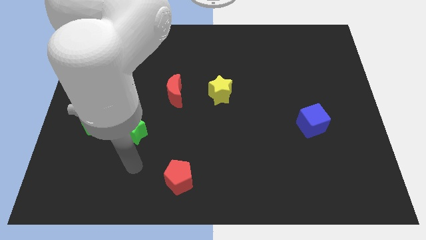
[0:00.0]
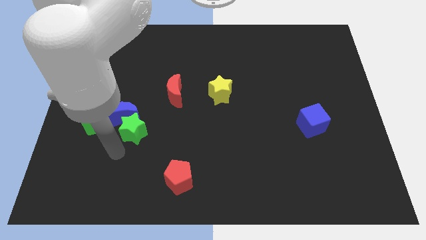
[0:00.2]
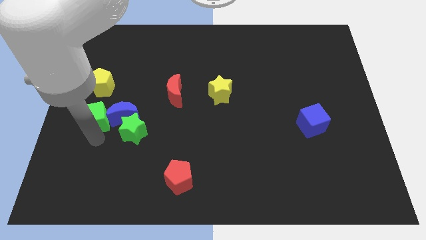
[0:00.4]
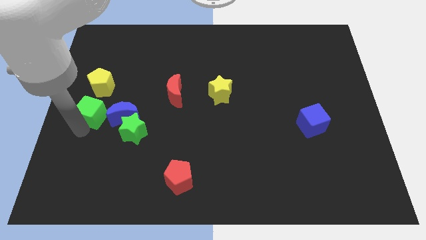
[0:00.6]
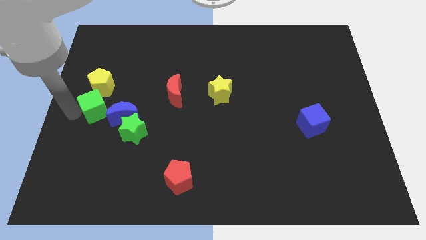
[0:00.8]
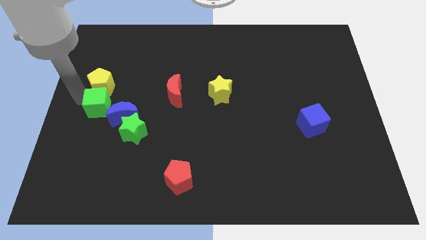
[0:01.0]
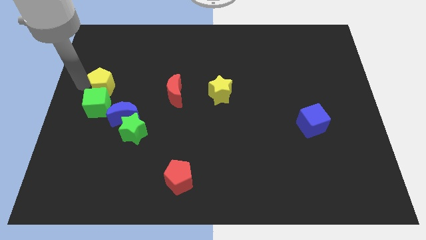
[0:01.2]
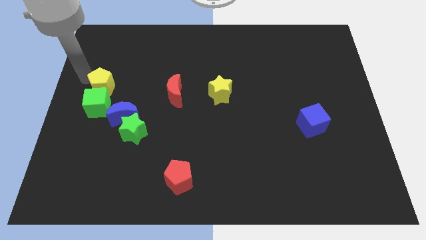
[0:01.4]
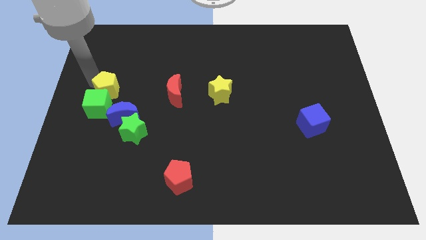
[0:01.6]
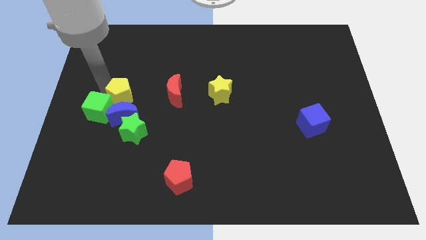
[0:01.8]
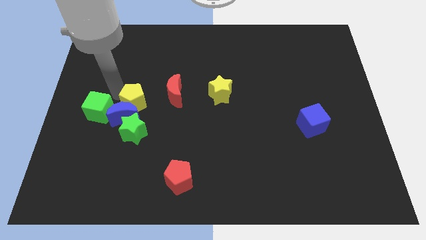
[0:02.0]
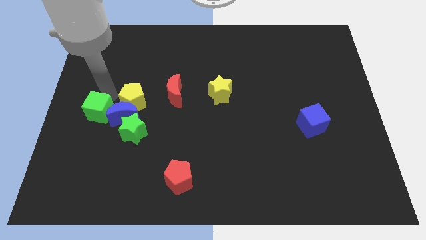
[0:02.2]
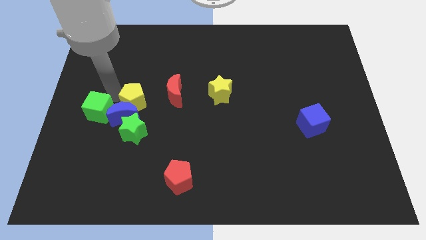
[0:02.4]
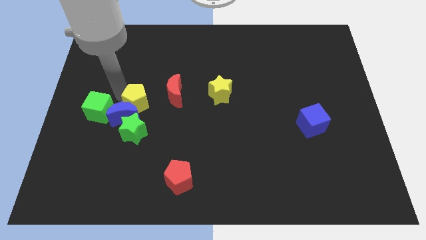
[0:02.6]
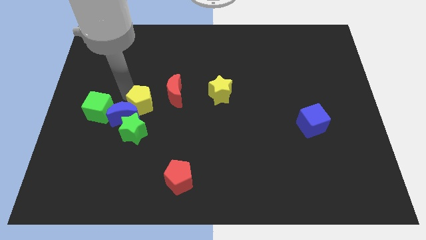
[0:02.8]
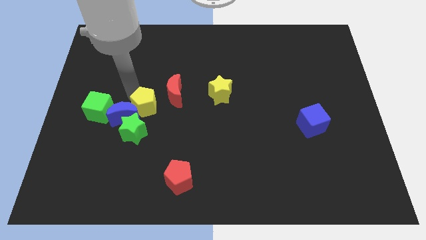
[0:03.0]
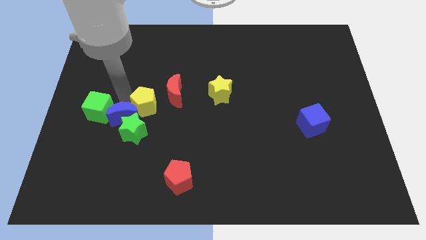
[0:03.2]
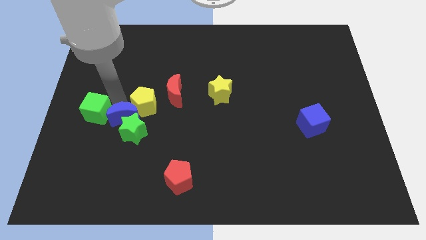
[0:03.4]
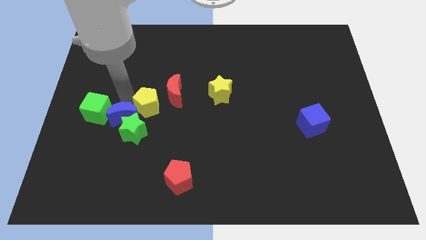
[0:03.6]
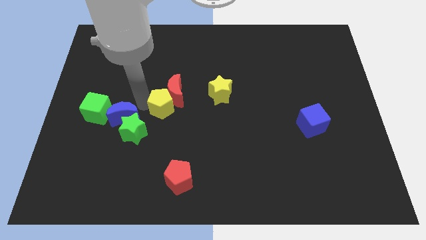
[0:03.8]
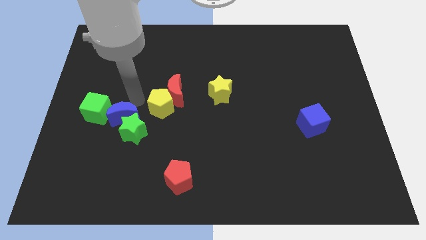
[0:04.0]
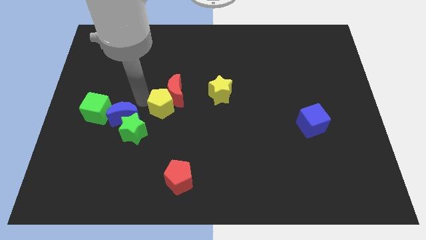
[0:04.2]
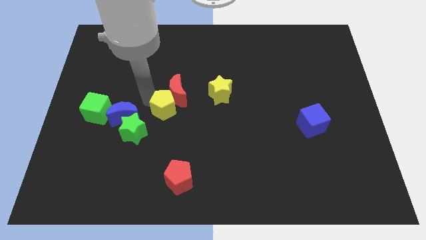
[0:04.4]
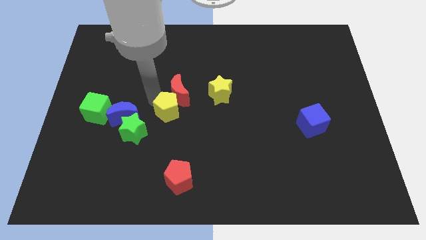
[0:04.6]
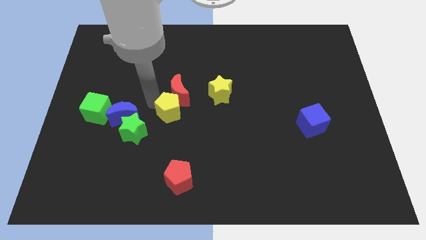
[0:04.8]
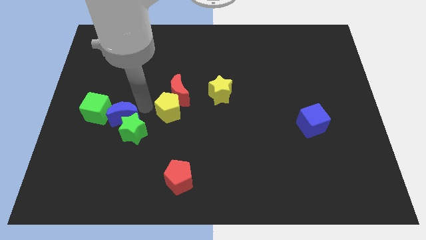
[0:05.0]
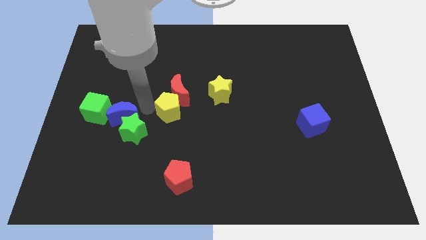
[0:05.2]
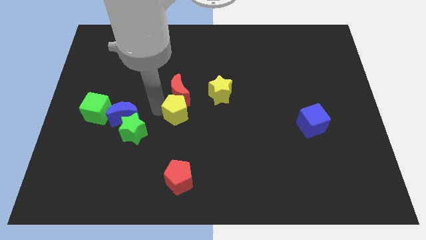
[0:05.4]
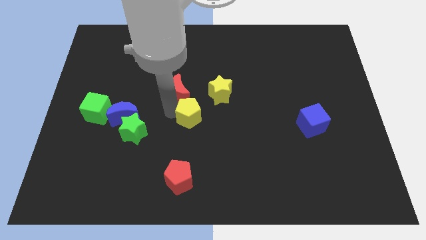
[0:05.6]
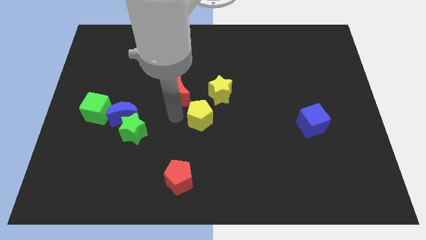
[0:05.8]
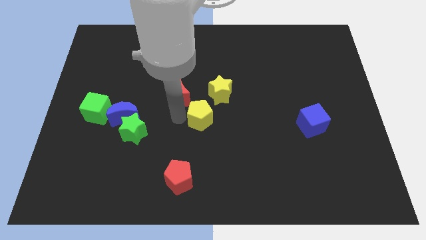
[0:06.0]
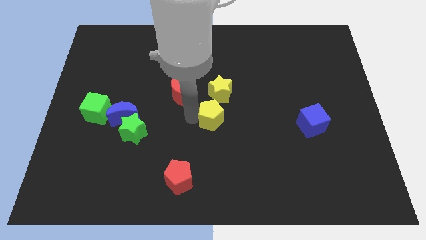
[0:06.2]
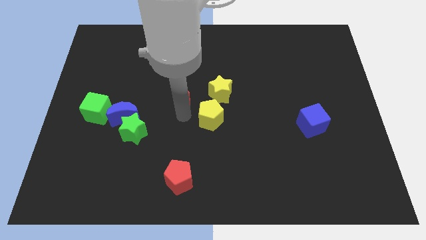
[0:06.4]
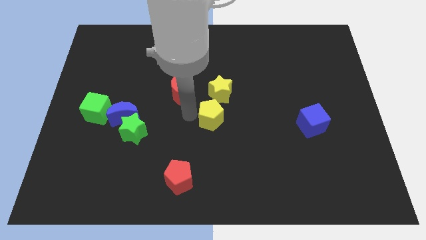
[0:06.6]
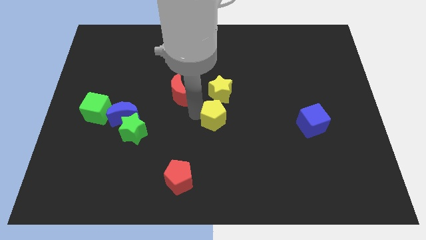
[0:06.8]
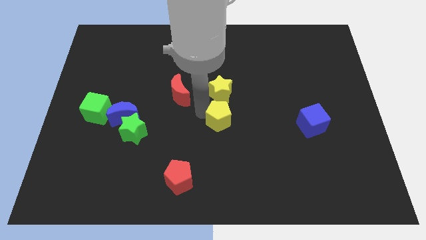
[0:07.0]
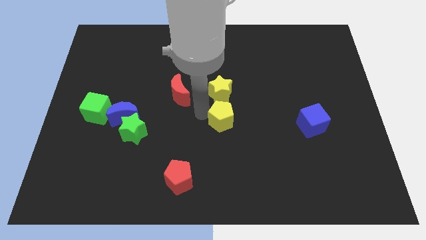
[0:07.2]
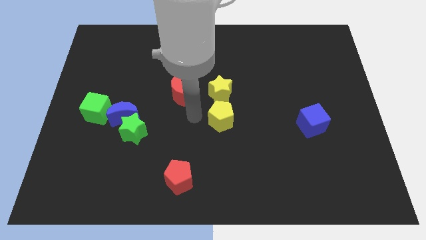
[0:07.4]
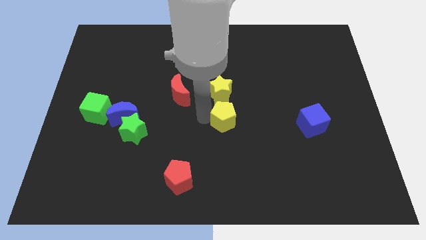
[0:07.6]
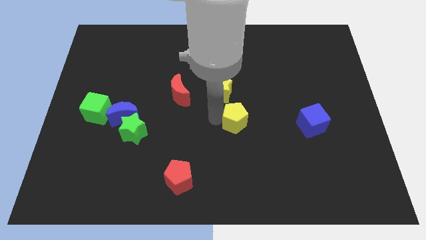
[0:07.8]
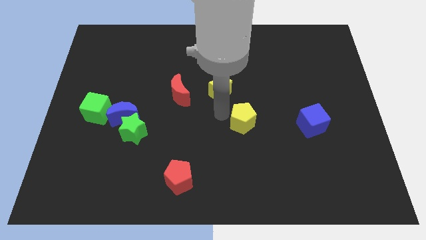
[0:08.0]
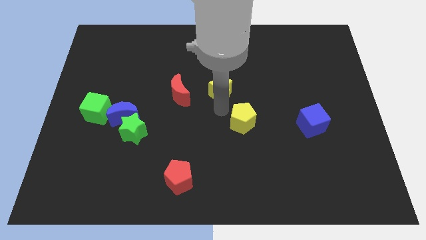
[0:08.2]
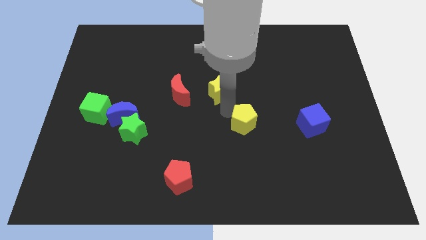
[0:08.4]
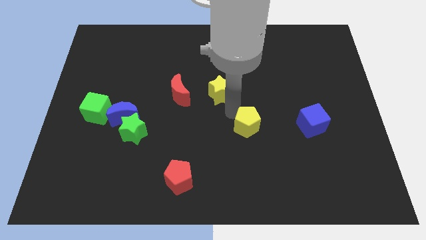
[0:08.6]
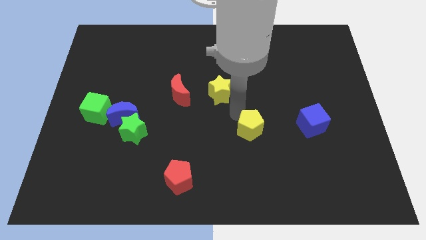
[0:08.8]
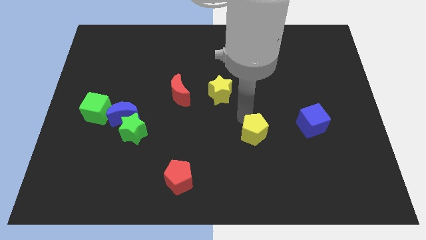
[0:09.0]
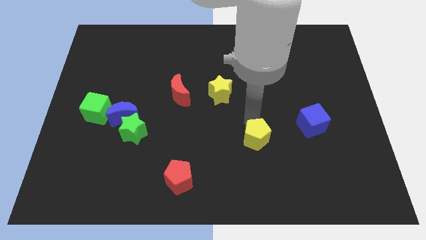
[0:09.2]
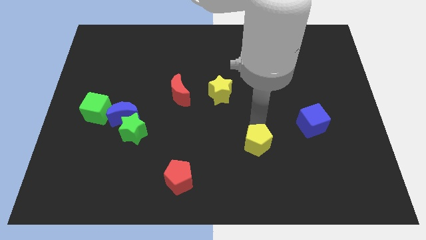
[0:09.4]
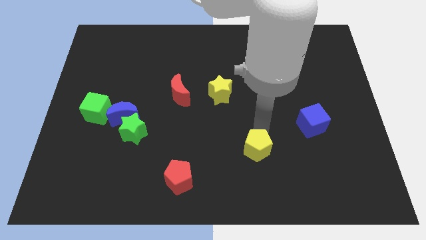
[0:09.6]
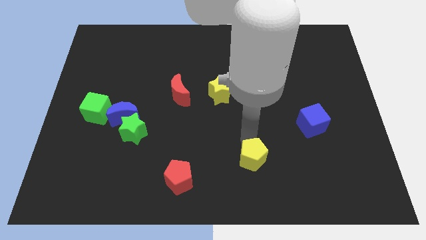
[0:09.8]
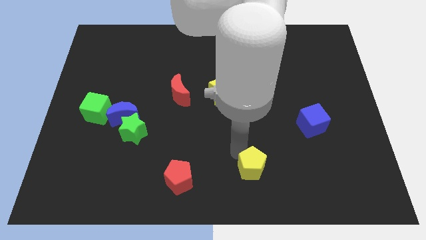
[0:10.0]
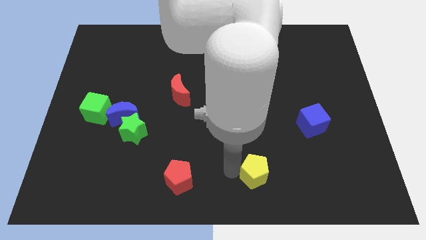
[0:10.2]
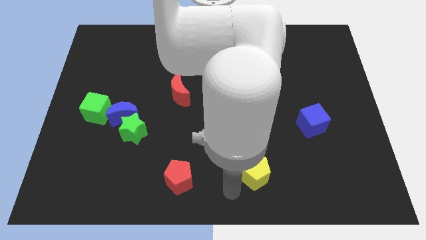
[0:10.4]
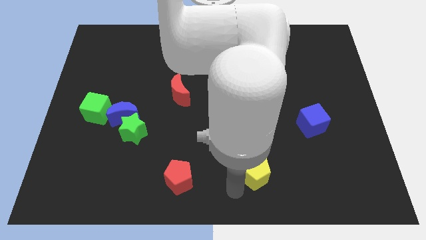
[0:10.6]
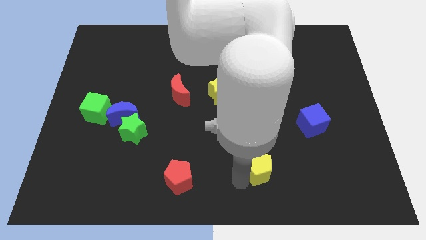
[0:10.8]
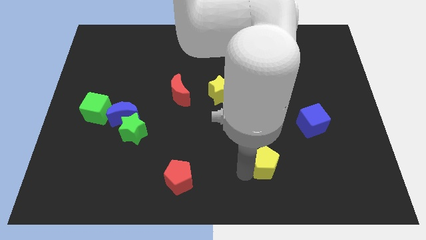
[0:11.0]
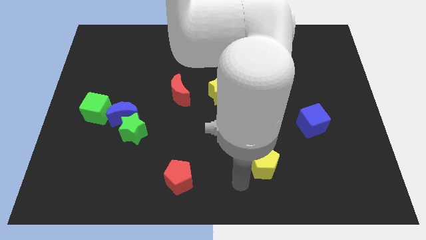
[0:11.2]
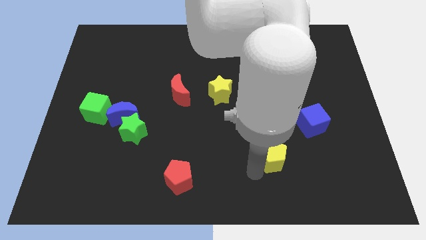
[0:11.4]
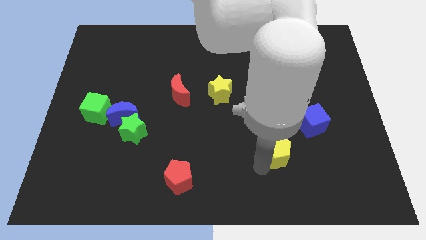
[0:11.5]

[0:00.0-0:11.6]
slide the yellow pentagon to the bottom left of the blue cube

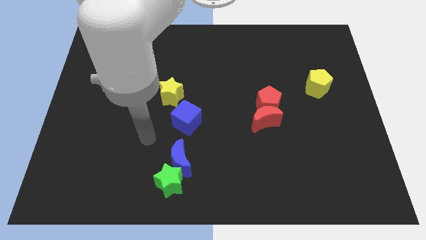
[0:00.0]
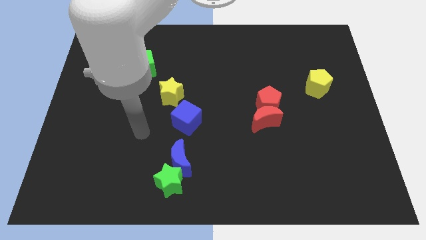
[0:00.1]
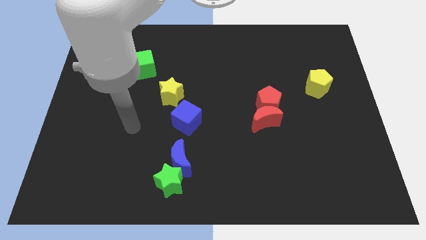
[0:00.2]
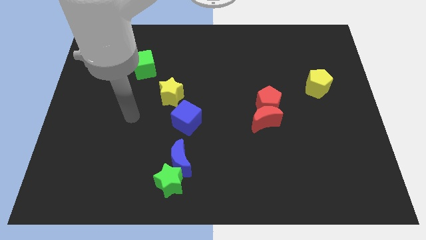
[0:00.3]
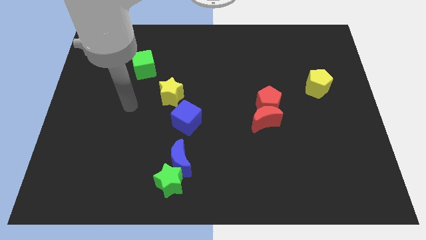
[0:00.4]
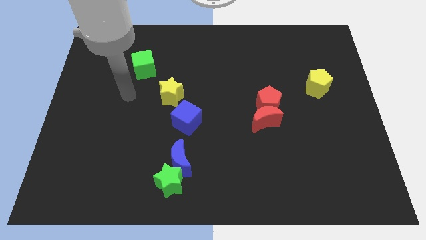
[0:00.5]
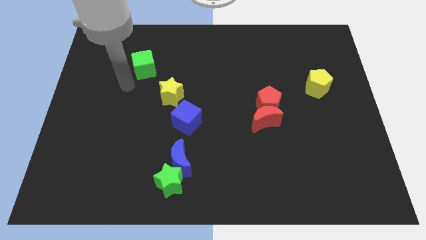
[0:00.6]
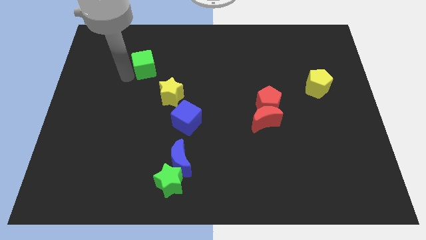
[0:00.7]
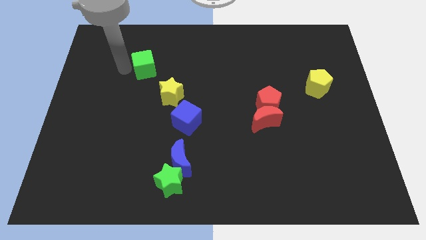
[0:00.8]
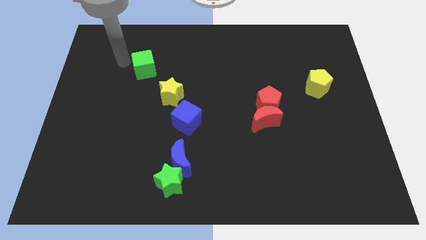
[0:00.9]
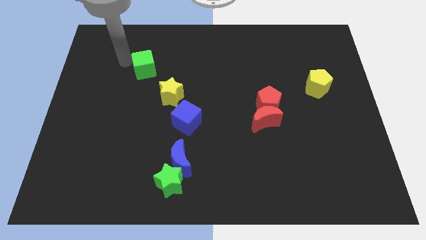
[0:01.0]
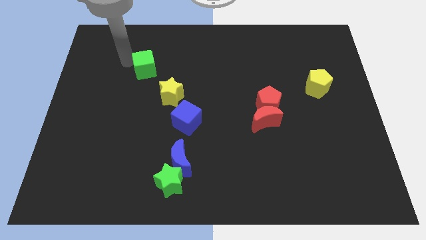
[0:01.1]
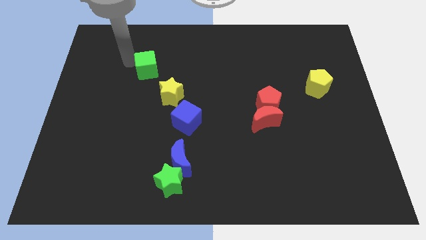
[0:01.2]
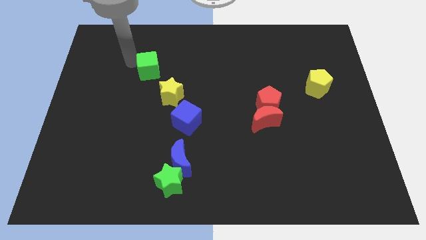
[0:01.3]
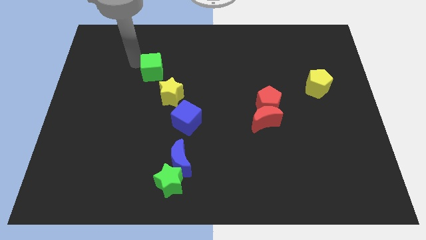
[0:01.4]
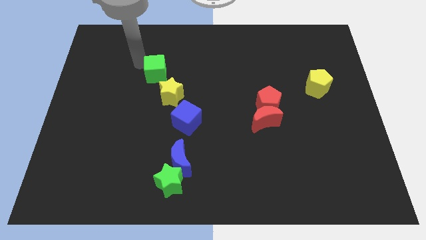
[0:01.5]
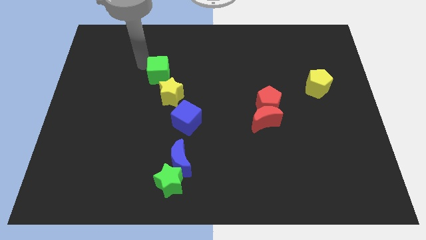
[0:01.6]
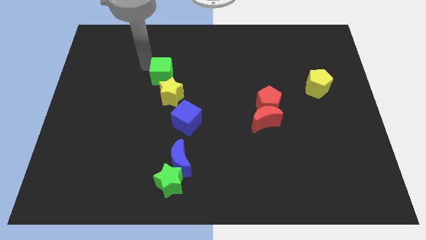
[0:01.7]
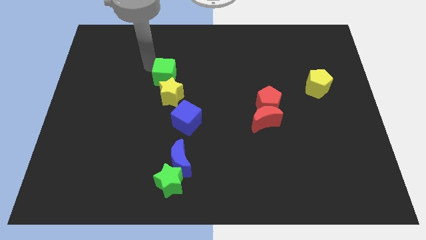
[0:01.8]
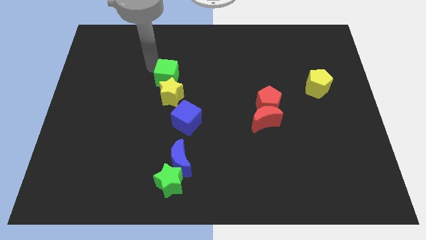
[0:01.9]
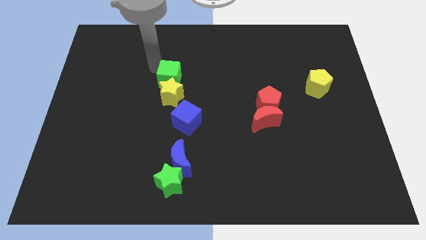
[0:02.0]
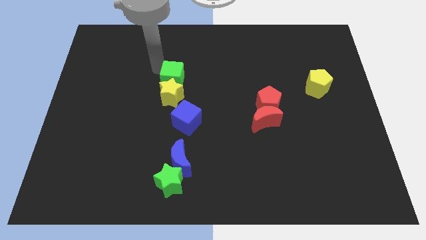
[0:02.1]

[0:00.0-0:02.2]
slide the green cube to the top side of the blue cube
